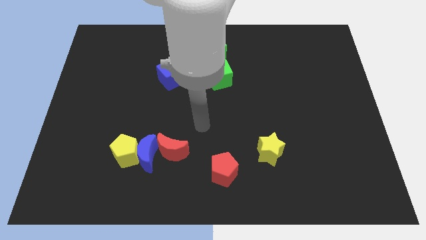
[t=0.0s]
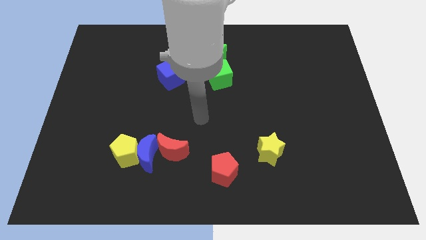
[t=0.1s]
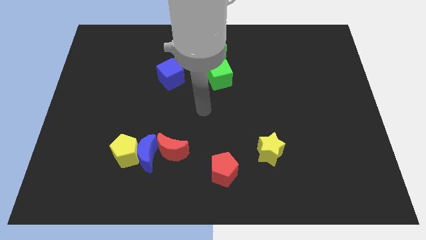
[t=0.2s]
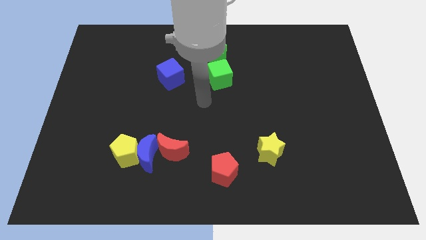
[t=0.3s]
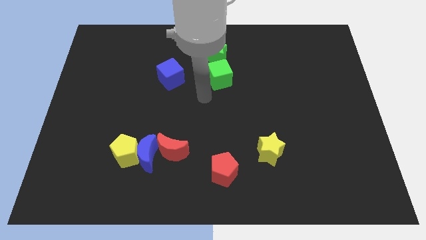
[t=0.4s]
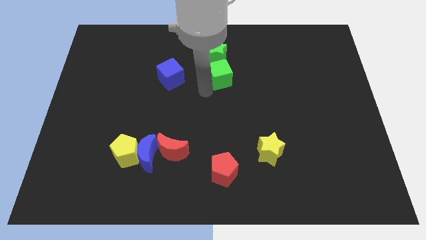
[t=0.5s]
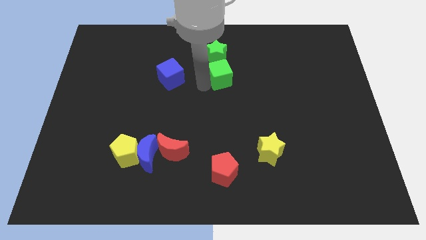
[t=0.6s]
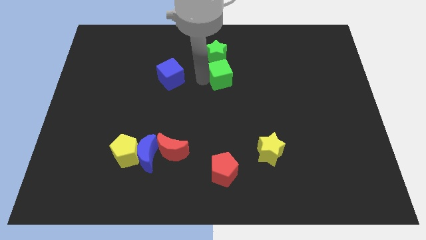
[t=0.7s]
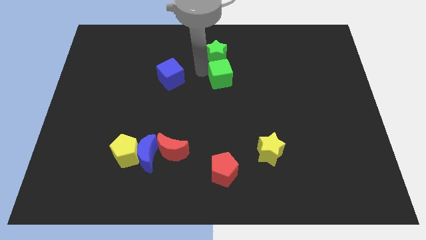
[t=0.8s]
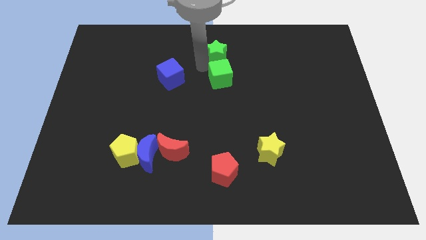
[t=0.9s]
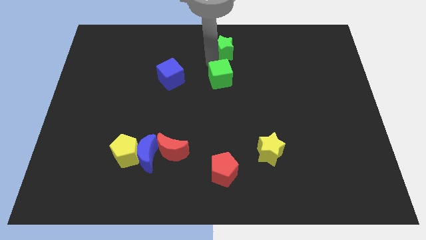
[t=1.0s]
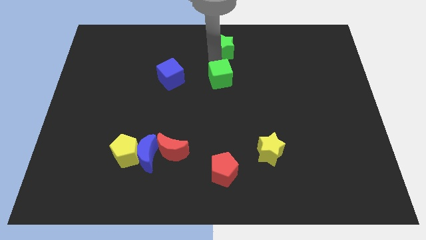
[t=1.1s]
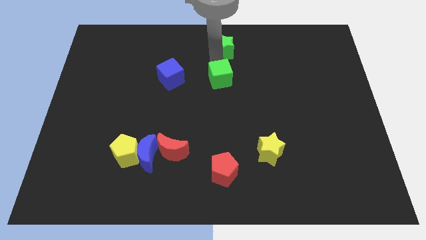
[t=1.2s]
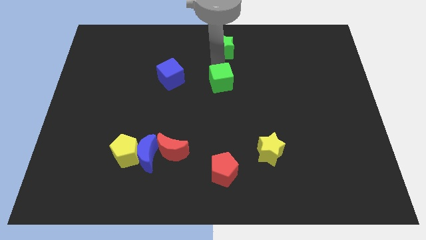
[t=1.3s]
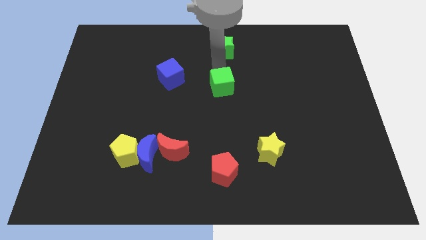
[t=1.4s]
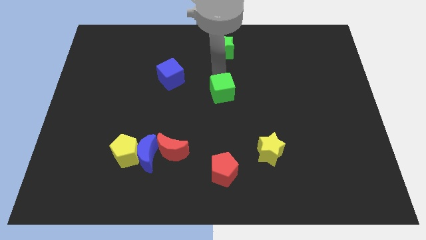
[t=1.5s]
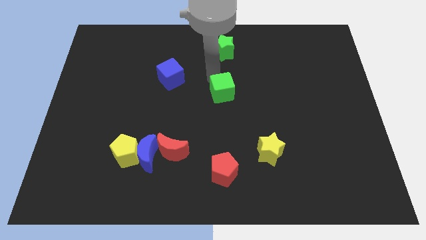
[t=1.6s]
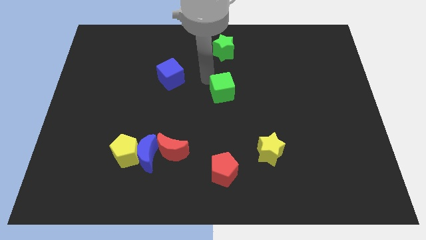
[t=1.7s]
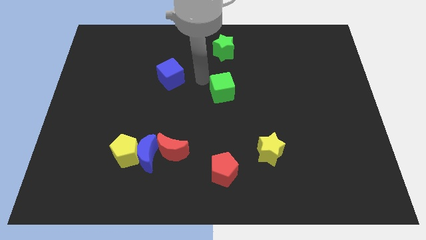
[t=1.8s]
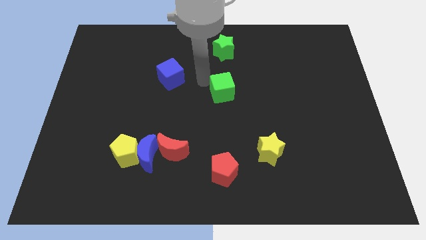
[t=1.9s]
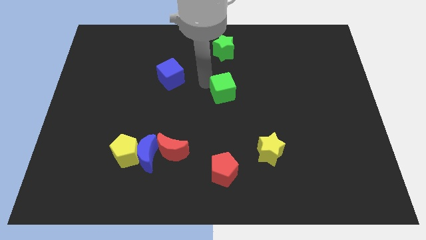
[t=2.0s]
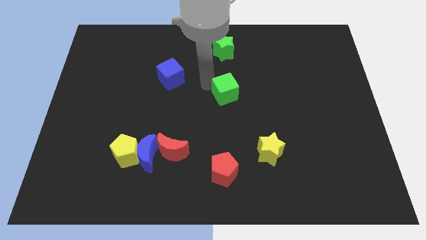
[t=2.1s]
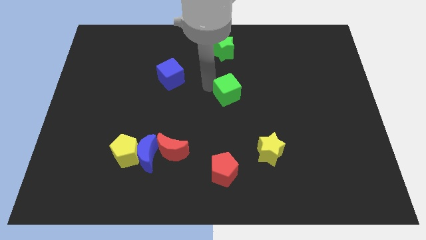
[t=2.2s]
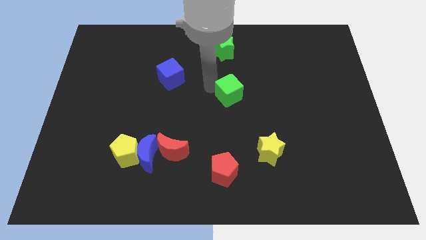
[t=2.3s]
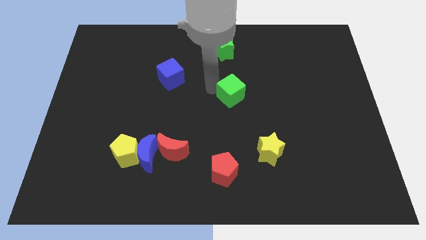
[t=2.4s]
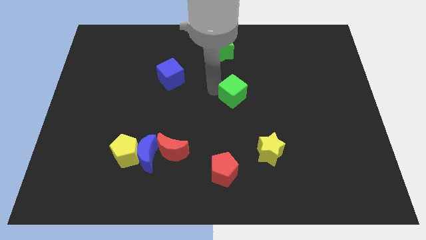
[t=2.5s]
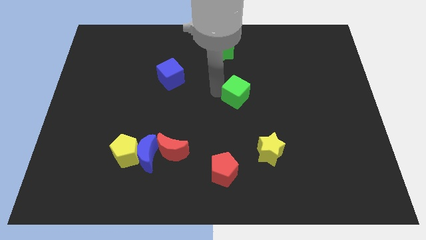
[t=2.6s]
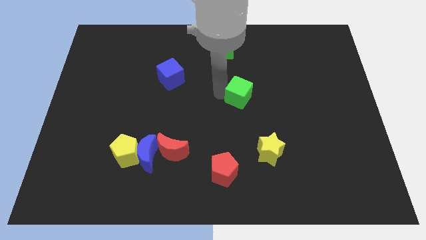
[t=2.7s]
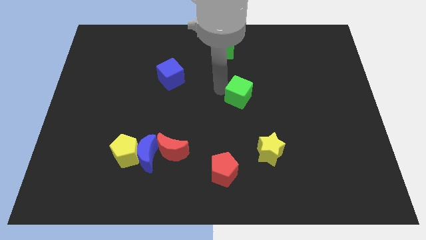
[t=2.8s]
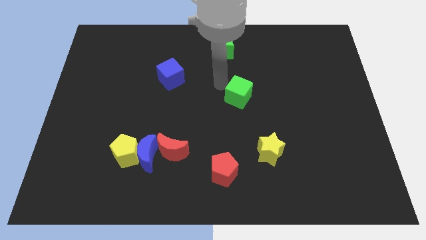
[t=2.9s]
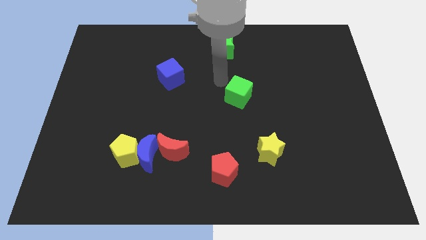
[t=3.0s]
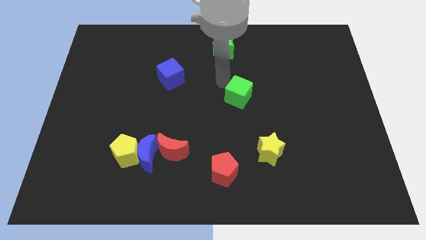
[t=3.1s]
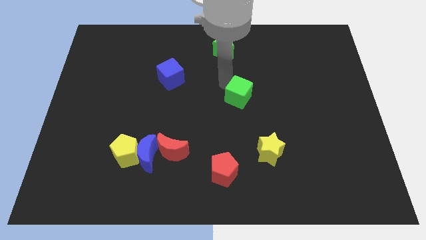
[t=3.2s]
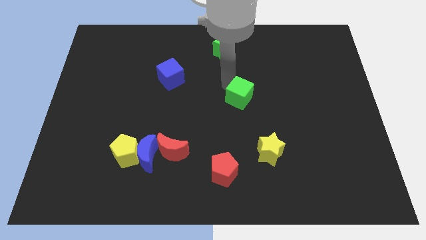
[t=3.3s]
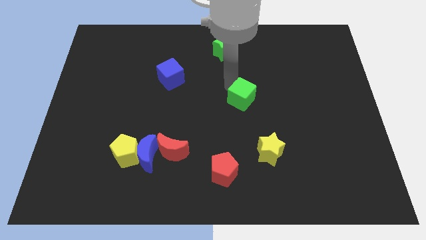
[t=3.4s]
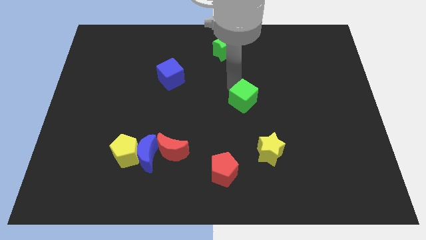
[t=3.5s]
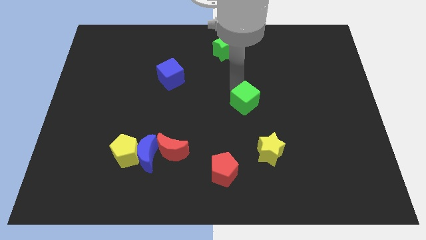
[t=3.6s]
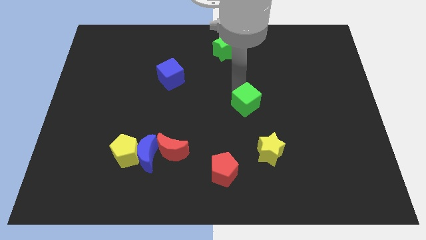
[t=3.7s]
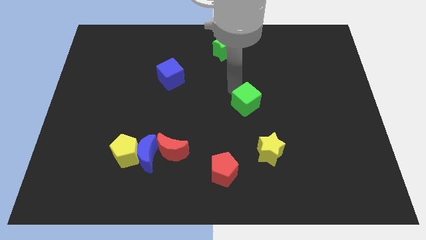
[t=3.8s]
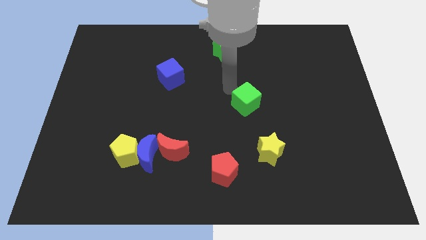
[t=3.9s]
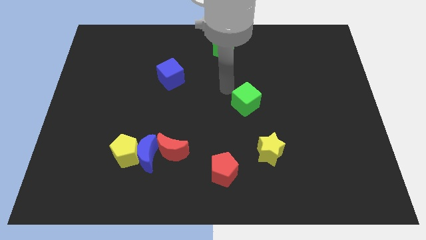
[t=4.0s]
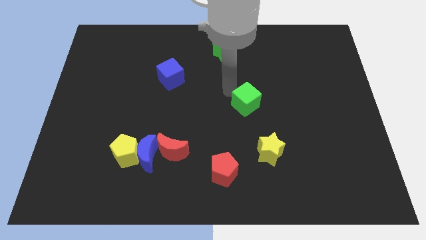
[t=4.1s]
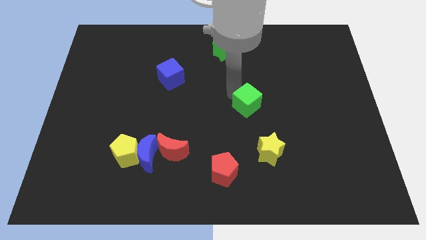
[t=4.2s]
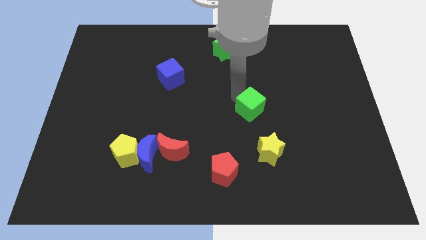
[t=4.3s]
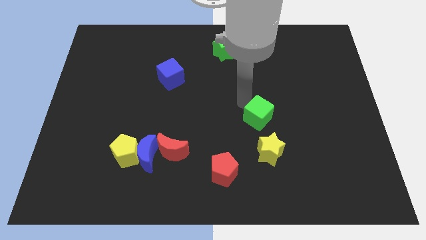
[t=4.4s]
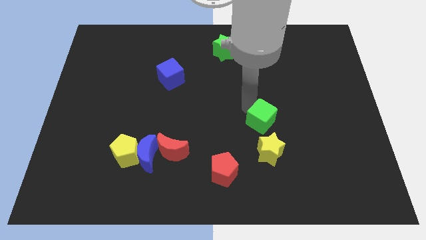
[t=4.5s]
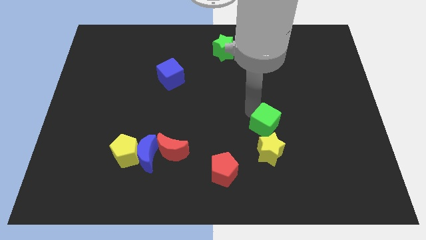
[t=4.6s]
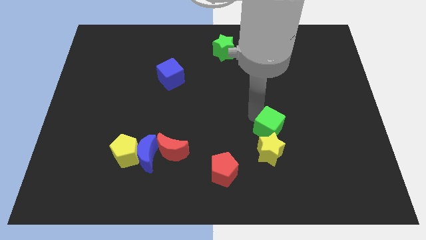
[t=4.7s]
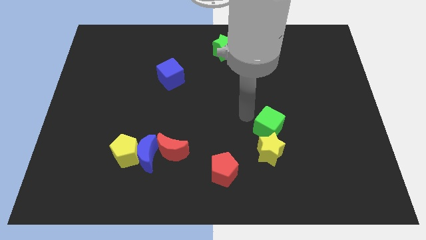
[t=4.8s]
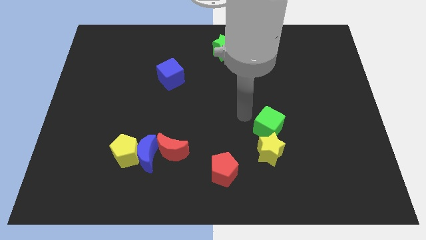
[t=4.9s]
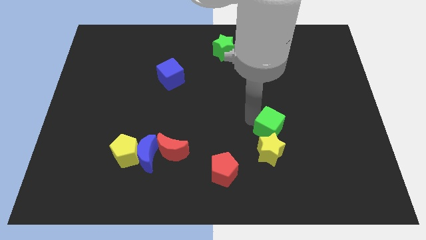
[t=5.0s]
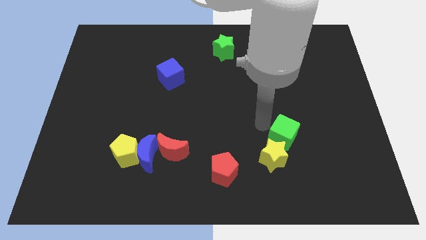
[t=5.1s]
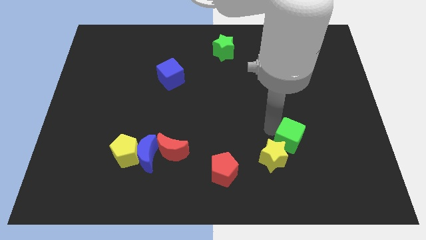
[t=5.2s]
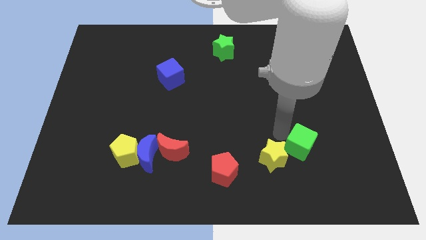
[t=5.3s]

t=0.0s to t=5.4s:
put the green cube right of the yellow star

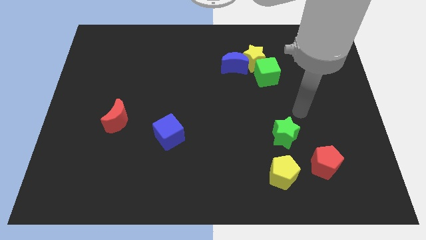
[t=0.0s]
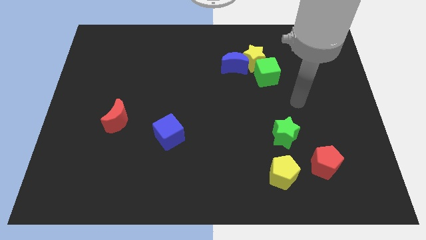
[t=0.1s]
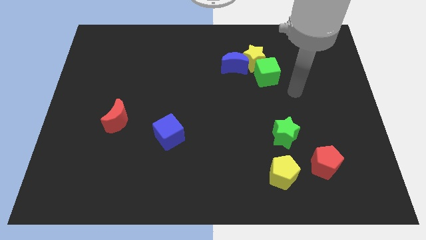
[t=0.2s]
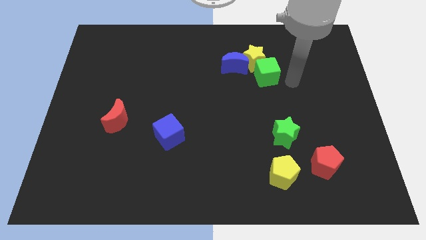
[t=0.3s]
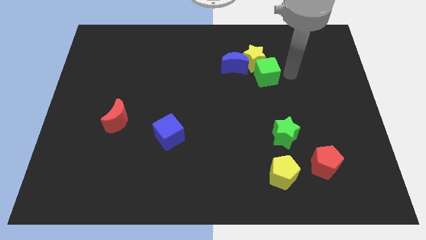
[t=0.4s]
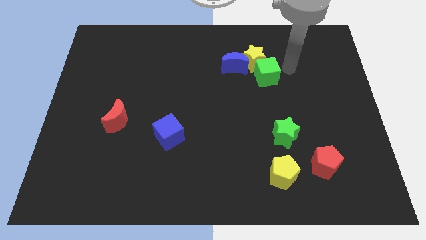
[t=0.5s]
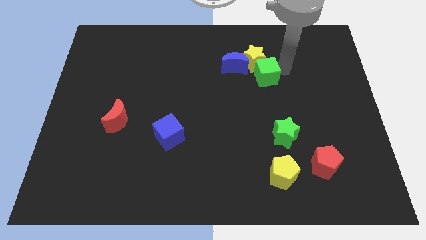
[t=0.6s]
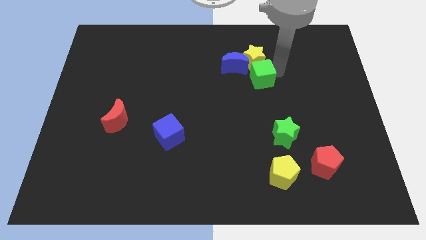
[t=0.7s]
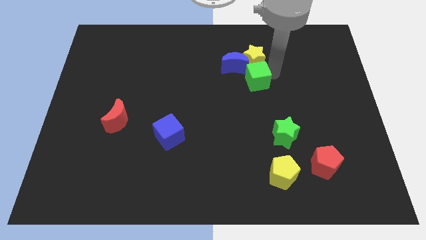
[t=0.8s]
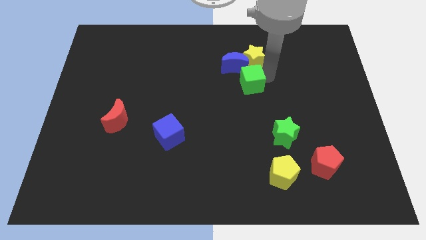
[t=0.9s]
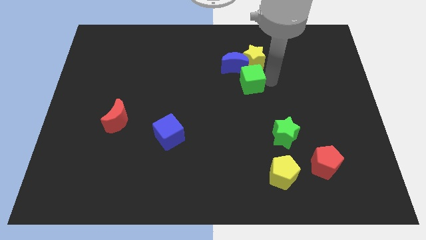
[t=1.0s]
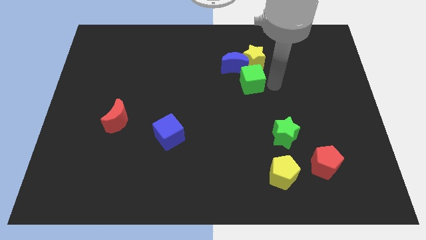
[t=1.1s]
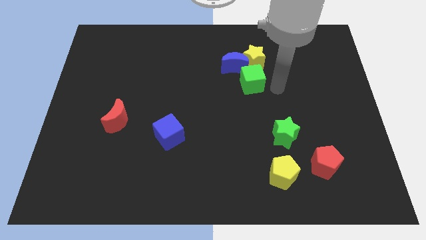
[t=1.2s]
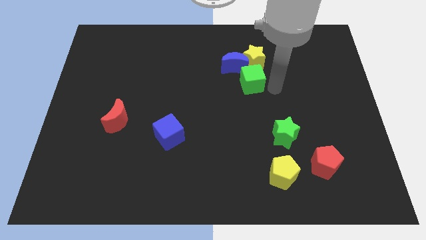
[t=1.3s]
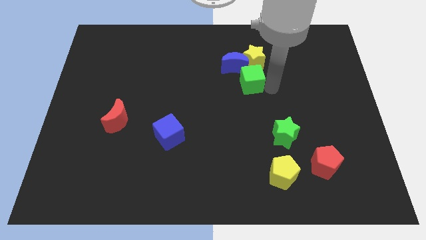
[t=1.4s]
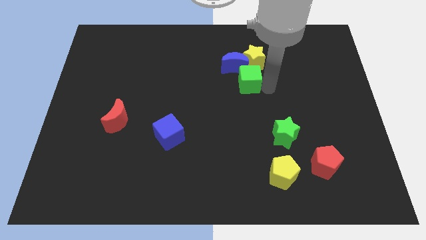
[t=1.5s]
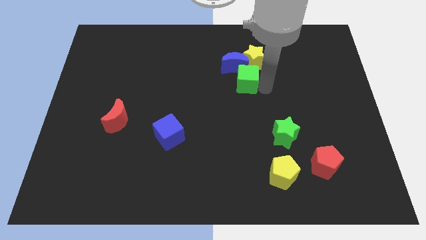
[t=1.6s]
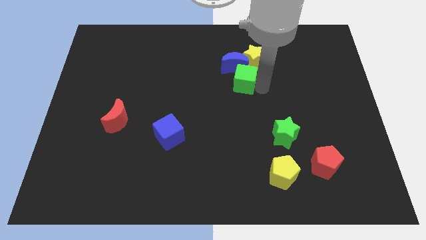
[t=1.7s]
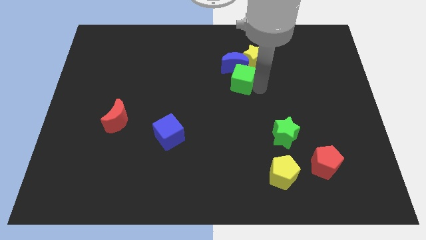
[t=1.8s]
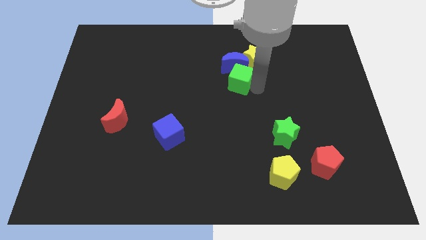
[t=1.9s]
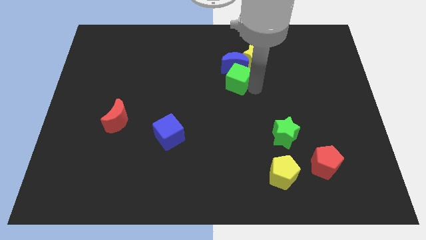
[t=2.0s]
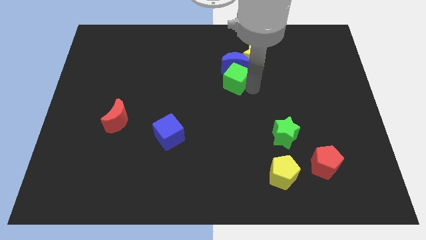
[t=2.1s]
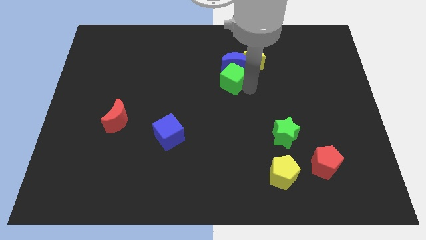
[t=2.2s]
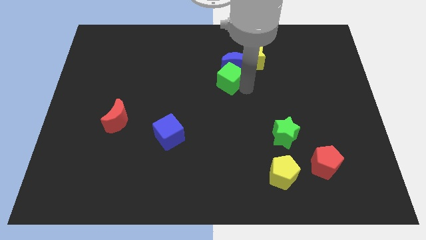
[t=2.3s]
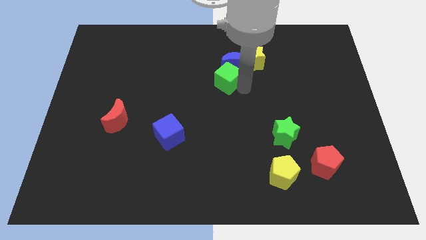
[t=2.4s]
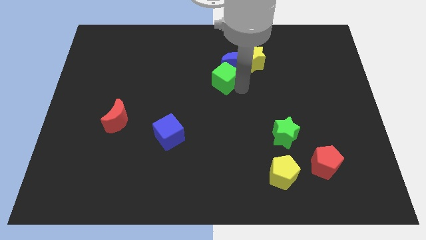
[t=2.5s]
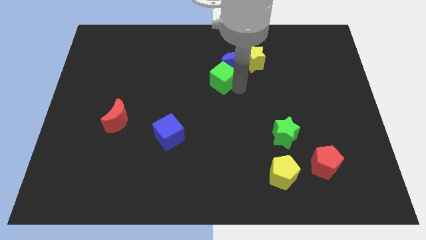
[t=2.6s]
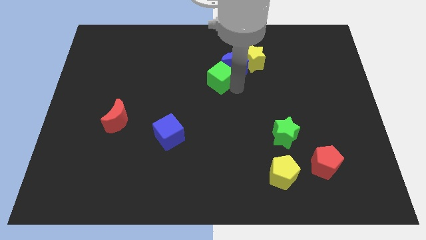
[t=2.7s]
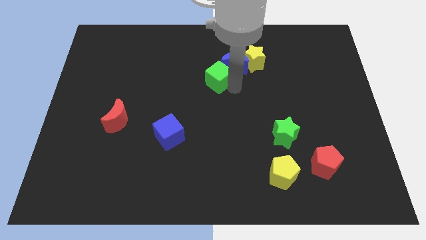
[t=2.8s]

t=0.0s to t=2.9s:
slide the green cube to the left side of the blue moon
